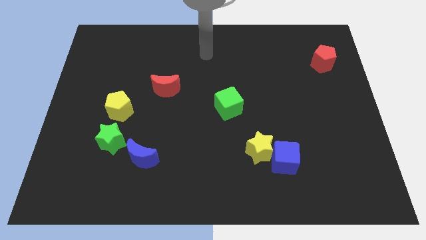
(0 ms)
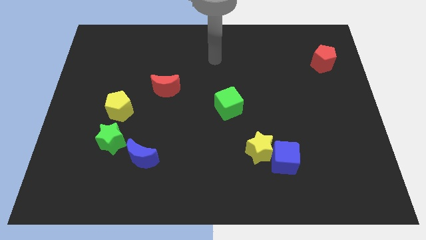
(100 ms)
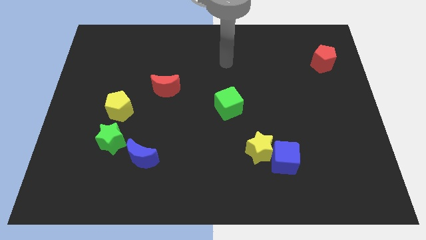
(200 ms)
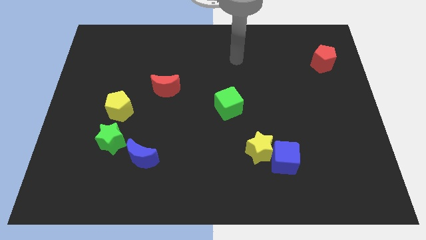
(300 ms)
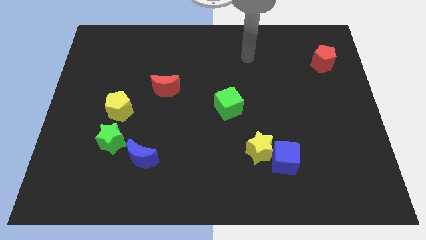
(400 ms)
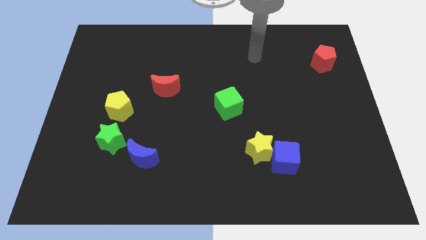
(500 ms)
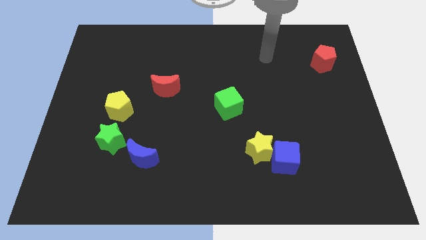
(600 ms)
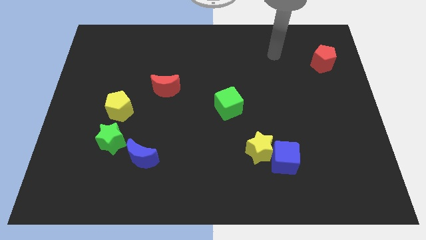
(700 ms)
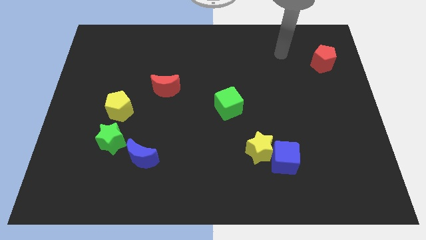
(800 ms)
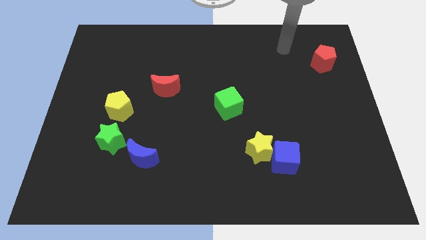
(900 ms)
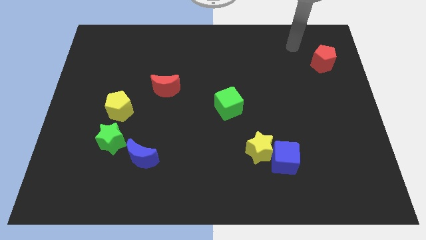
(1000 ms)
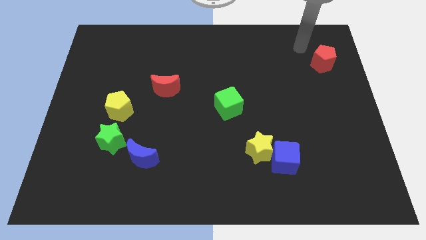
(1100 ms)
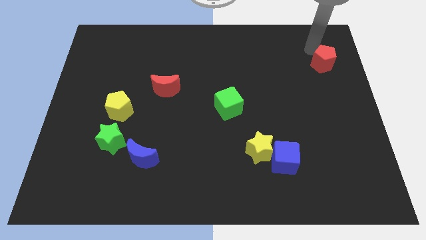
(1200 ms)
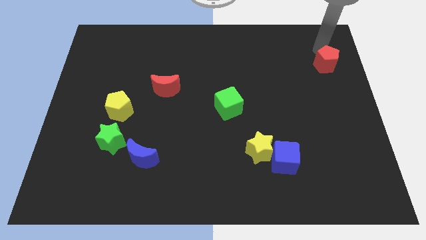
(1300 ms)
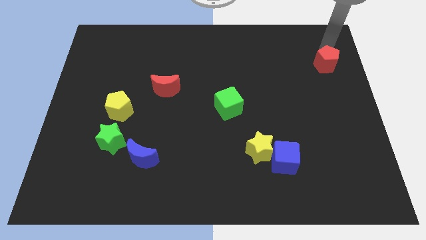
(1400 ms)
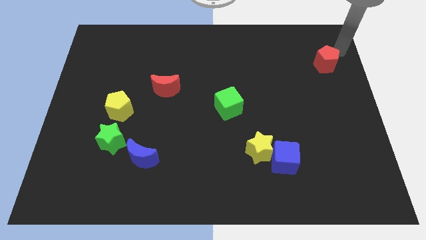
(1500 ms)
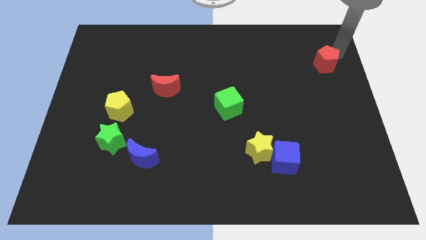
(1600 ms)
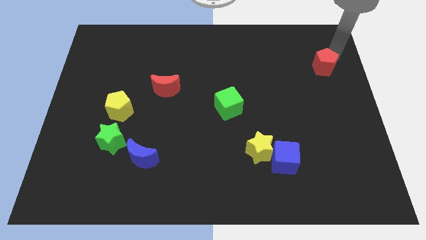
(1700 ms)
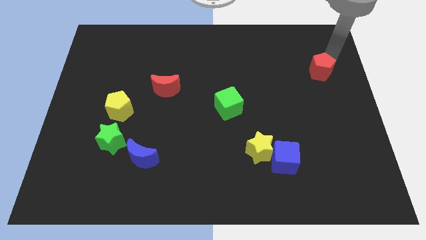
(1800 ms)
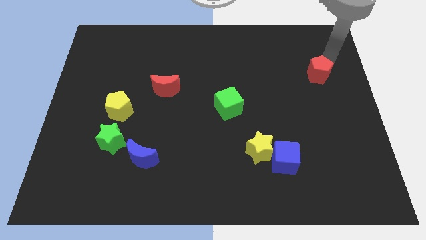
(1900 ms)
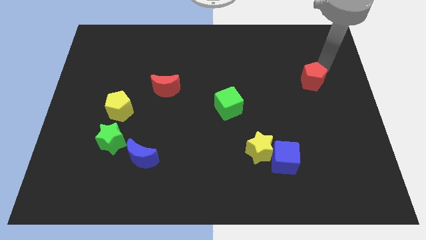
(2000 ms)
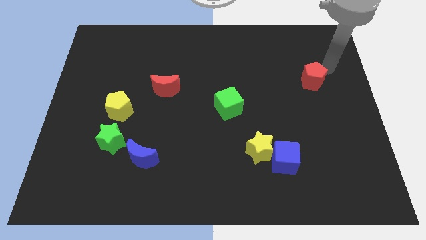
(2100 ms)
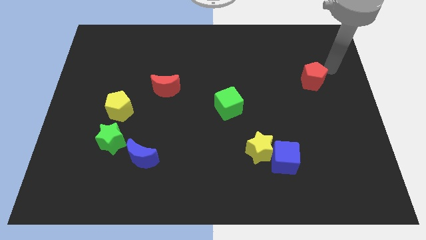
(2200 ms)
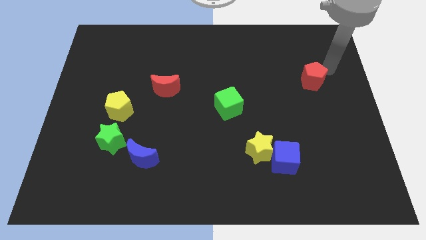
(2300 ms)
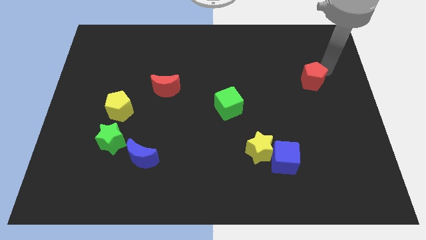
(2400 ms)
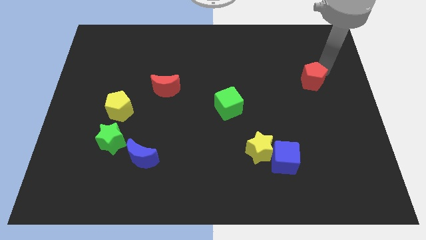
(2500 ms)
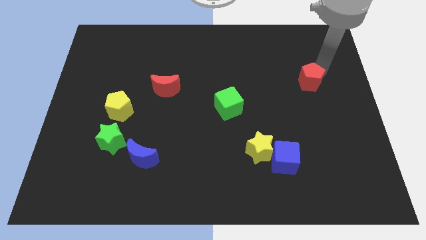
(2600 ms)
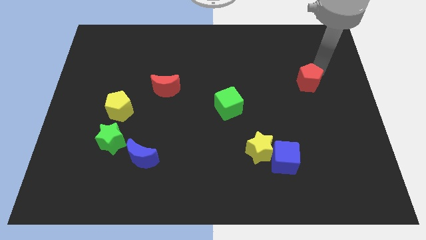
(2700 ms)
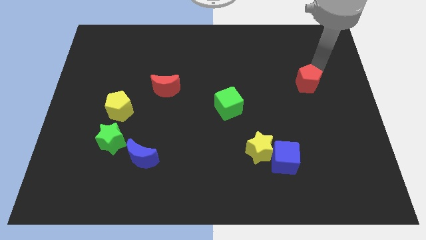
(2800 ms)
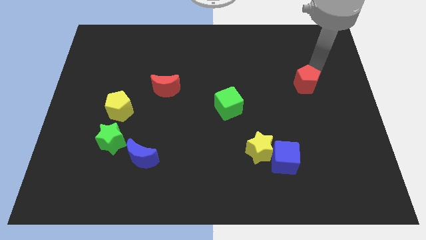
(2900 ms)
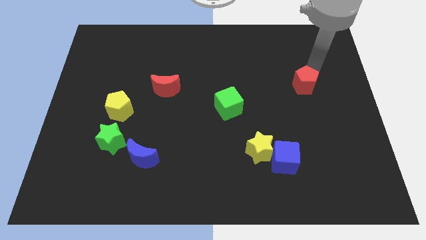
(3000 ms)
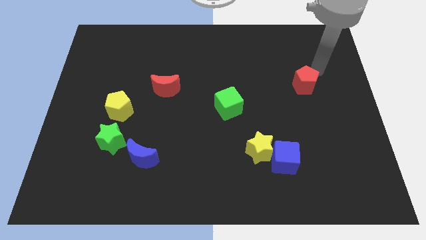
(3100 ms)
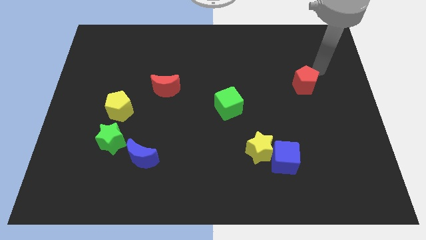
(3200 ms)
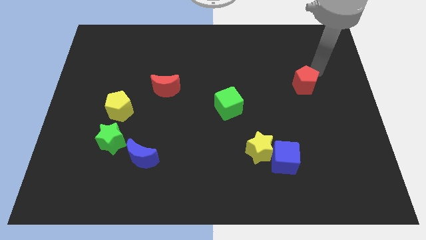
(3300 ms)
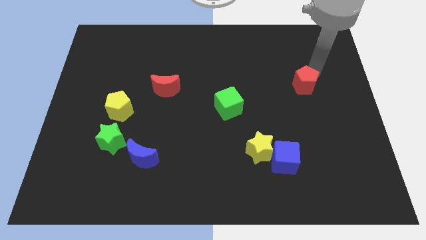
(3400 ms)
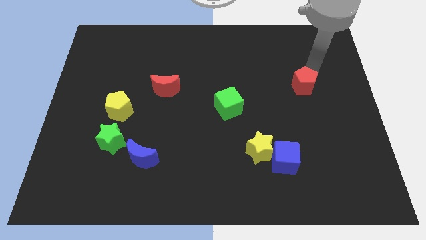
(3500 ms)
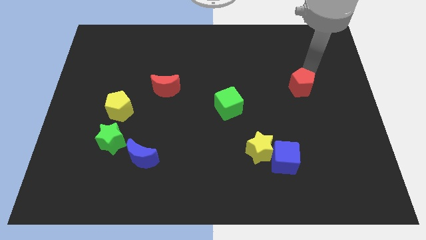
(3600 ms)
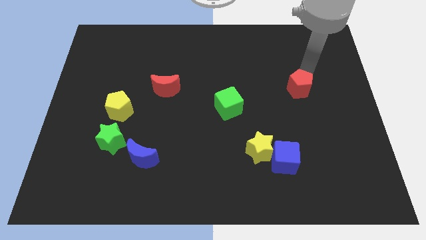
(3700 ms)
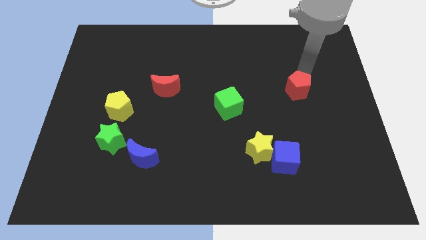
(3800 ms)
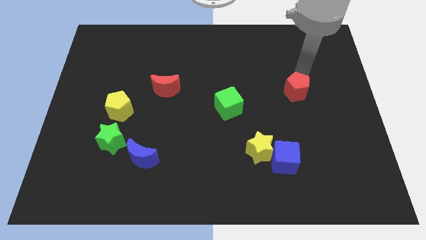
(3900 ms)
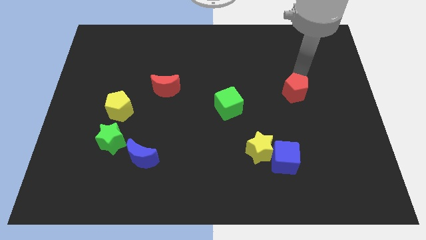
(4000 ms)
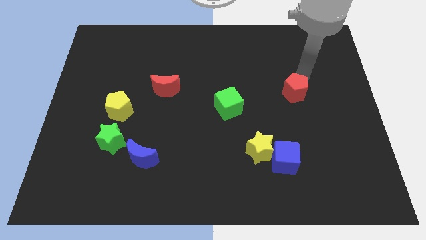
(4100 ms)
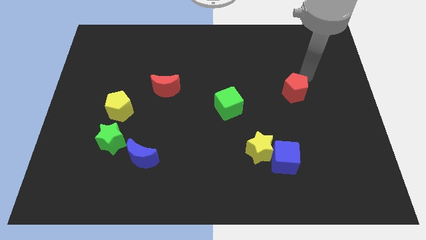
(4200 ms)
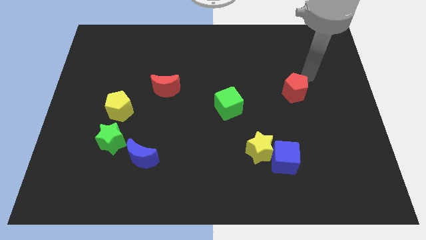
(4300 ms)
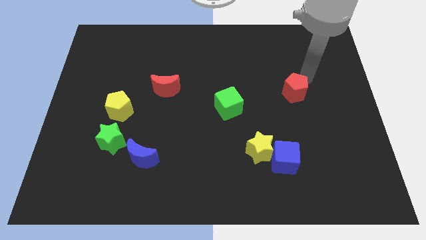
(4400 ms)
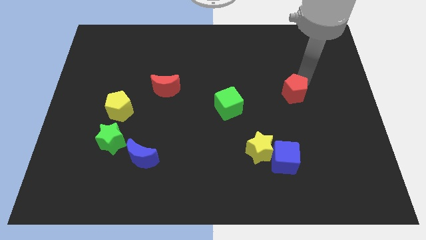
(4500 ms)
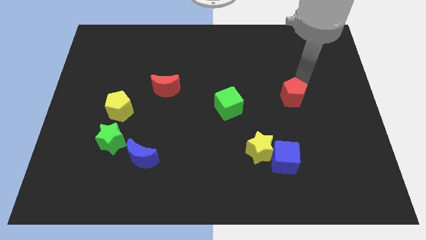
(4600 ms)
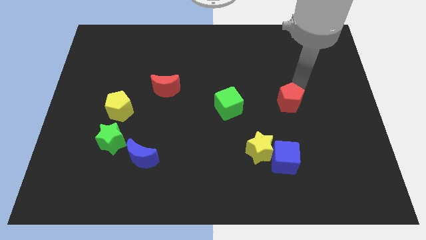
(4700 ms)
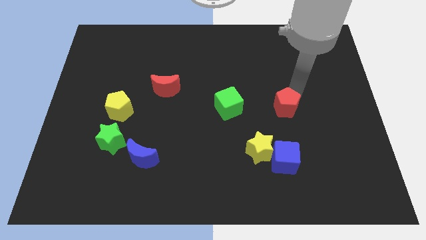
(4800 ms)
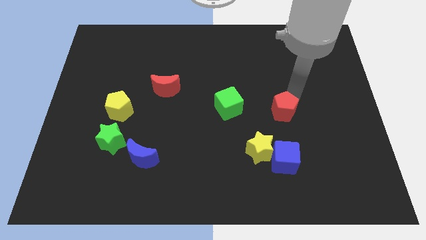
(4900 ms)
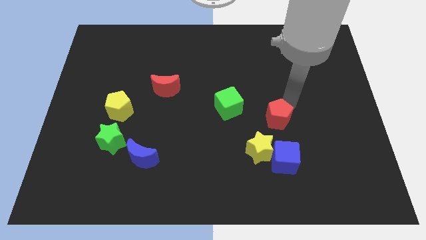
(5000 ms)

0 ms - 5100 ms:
push the red pentagon downwards and then to the left

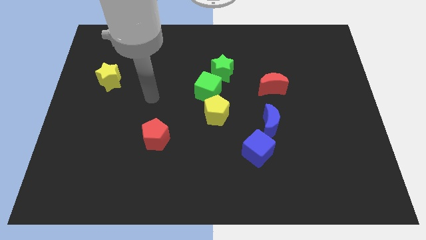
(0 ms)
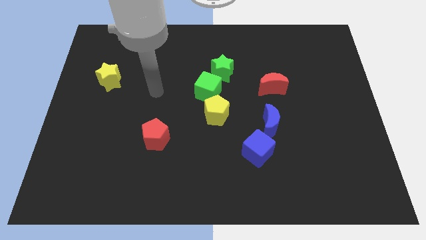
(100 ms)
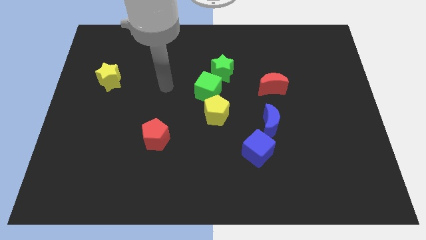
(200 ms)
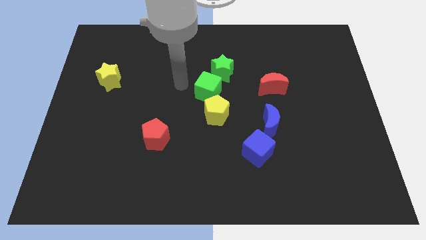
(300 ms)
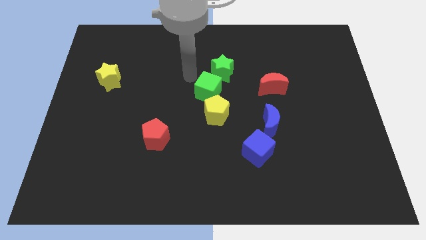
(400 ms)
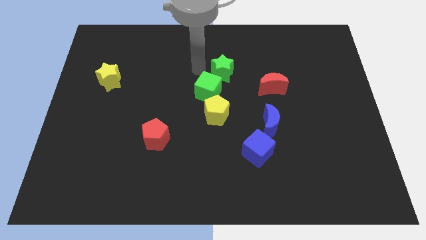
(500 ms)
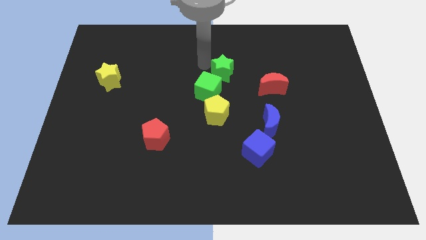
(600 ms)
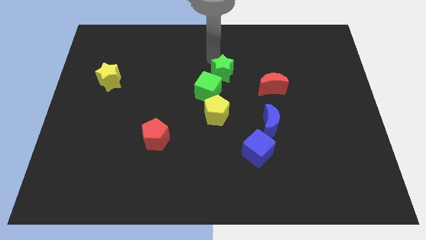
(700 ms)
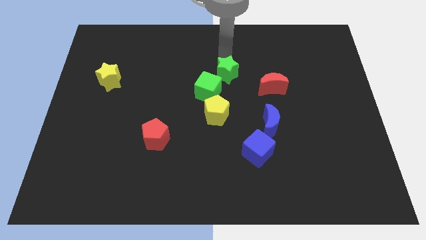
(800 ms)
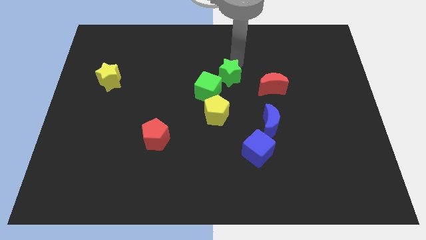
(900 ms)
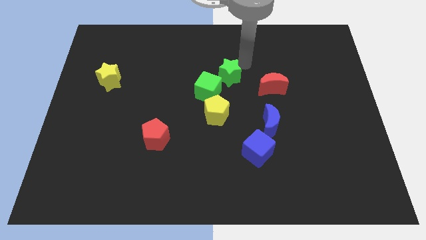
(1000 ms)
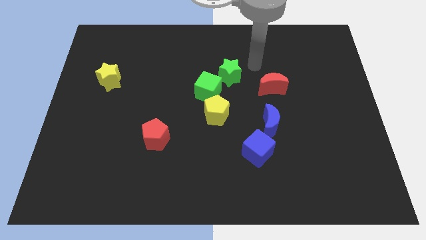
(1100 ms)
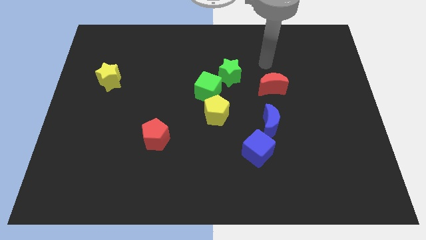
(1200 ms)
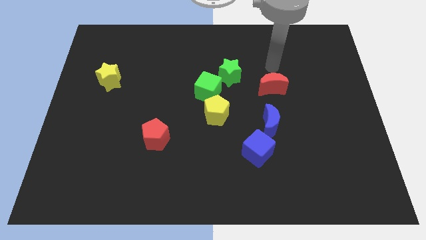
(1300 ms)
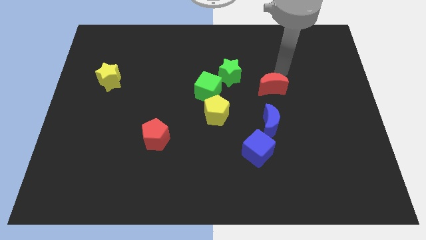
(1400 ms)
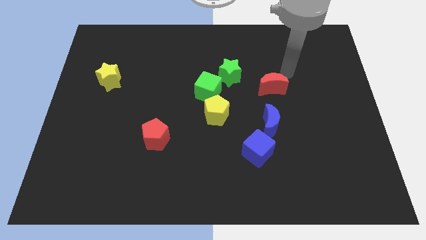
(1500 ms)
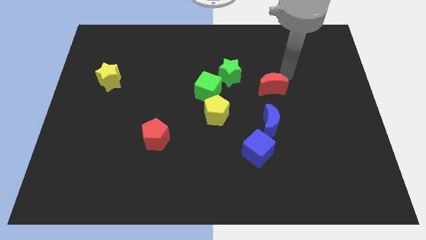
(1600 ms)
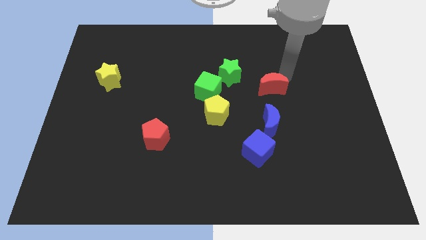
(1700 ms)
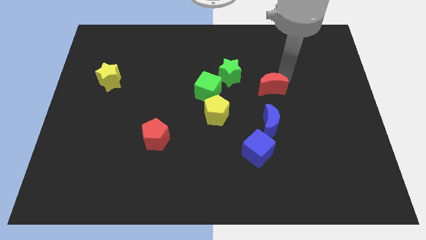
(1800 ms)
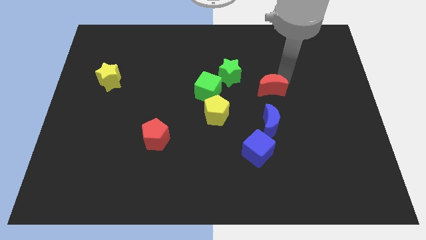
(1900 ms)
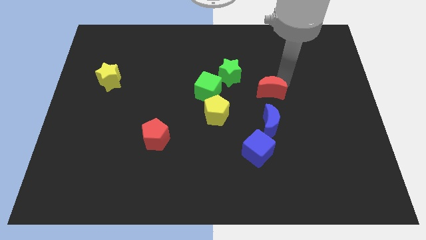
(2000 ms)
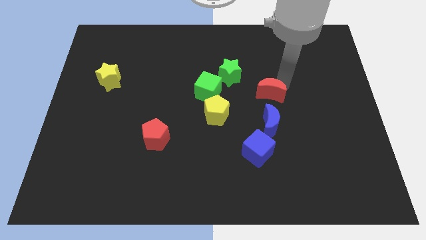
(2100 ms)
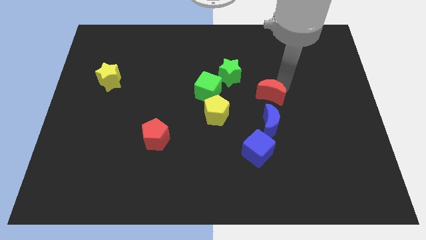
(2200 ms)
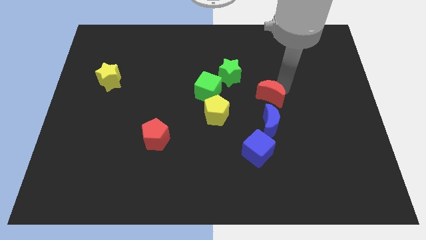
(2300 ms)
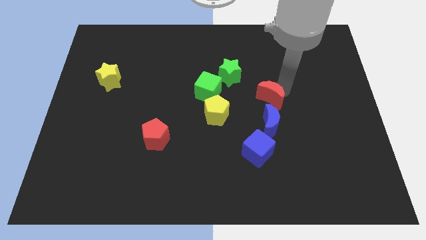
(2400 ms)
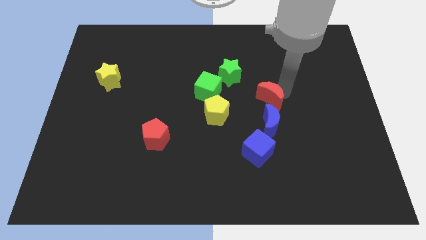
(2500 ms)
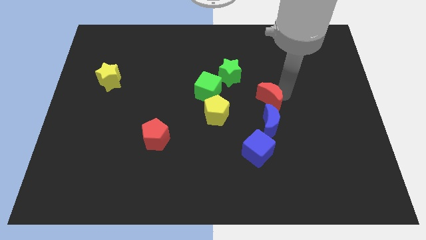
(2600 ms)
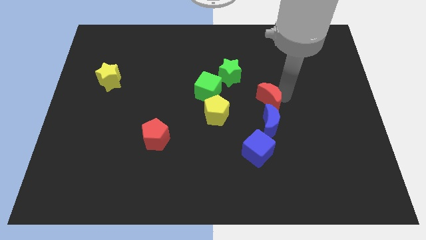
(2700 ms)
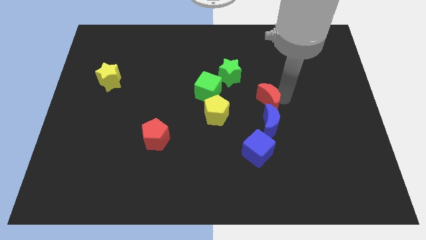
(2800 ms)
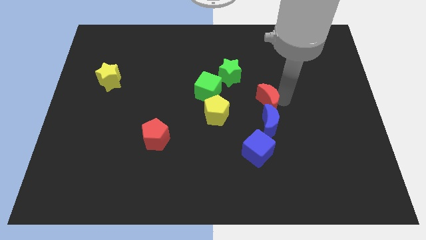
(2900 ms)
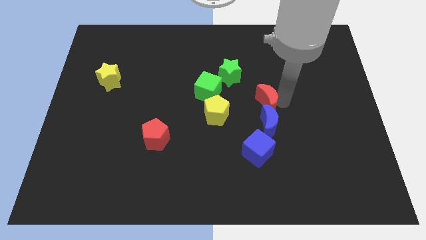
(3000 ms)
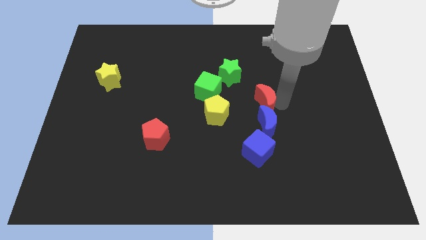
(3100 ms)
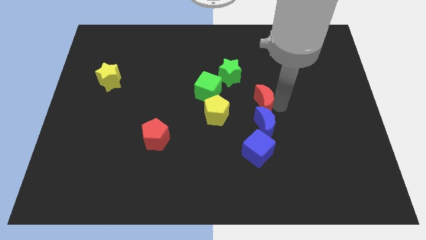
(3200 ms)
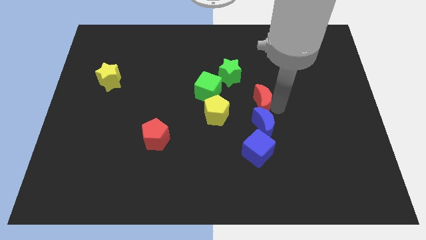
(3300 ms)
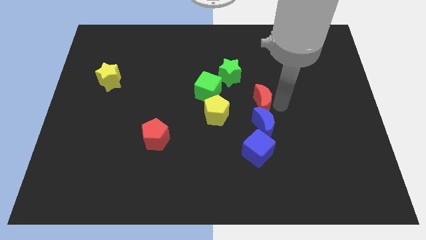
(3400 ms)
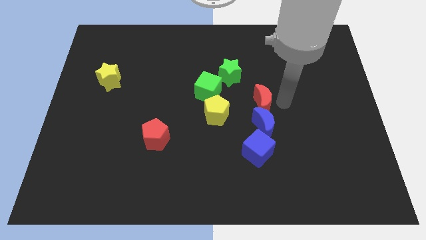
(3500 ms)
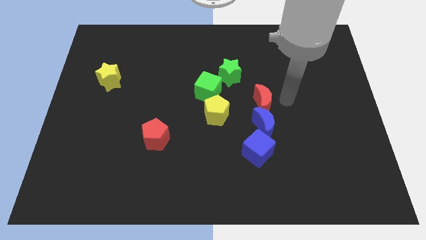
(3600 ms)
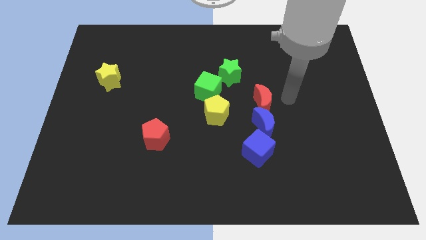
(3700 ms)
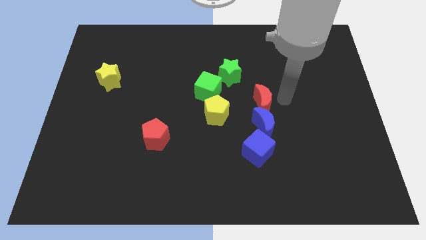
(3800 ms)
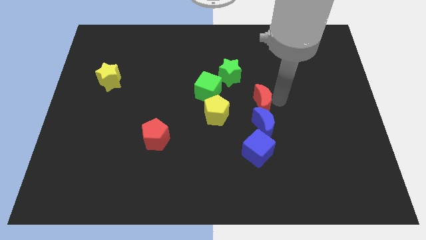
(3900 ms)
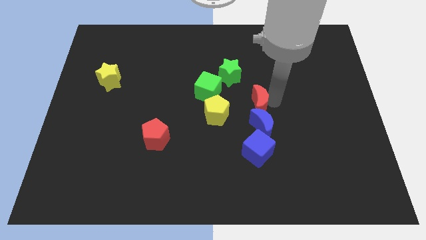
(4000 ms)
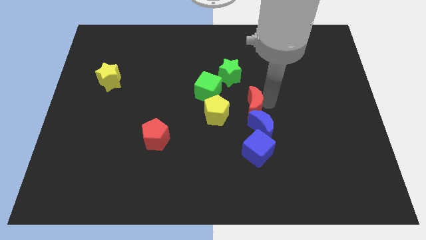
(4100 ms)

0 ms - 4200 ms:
move the red moon down and to the left a little bit
